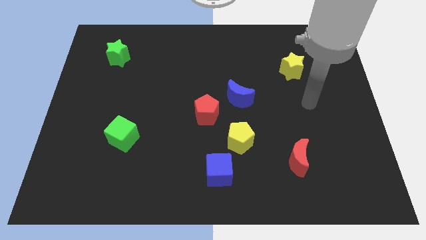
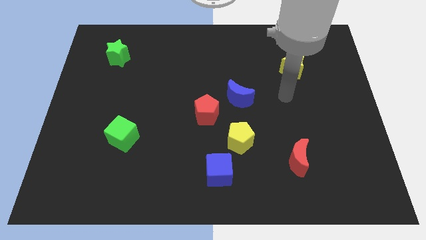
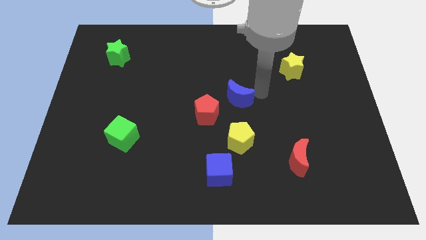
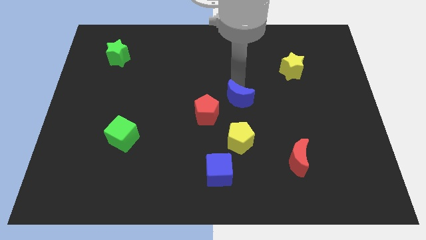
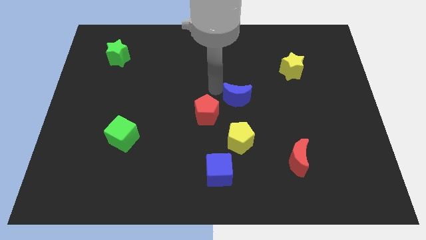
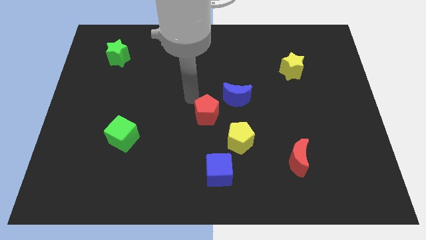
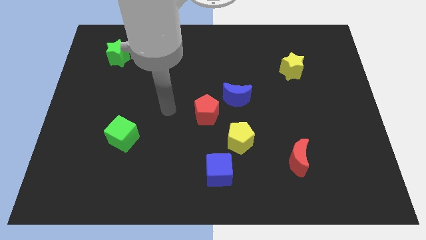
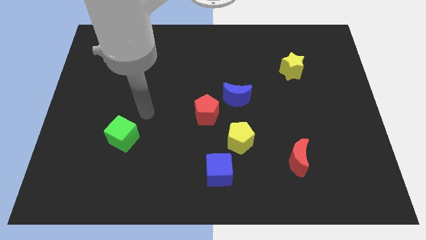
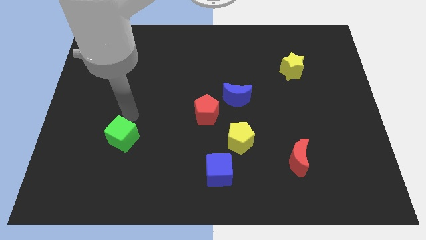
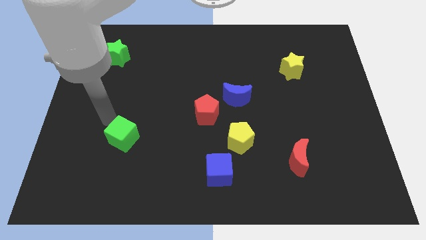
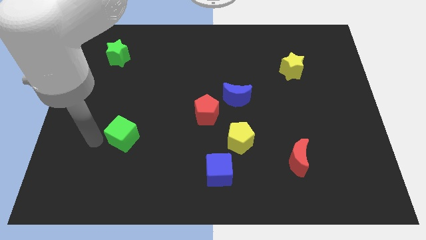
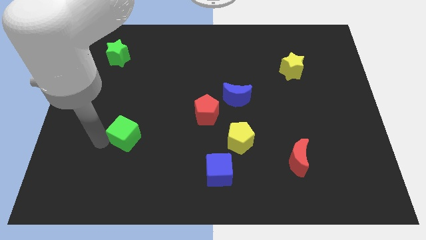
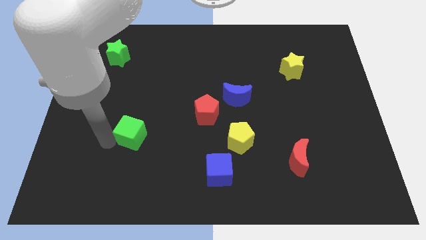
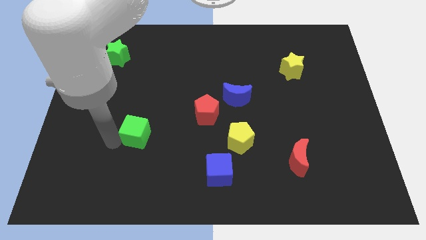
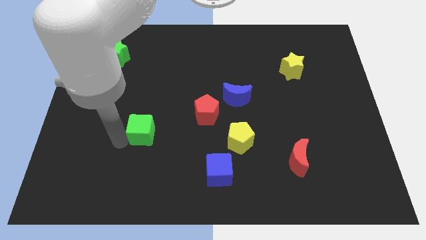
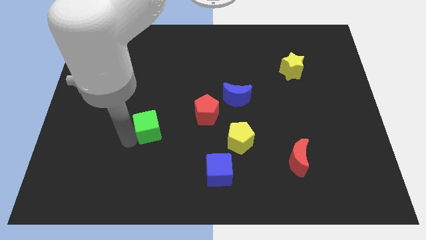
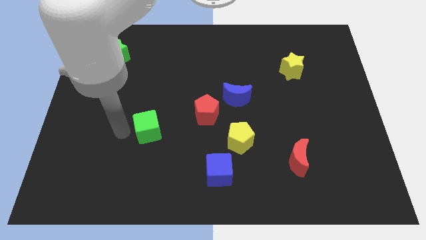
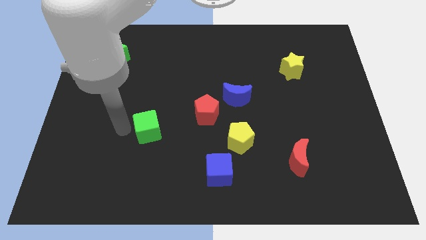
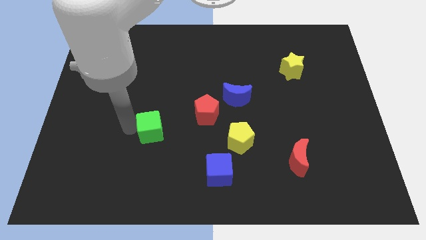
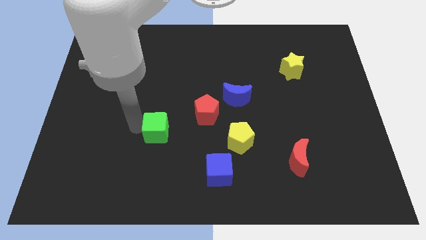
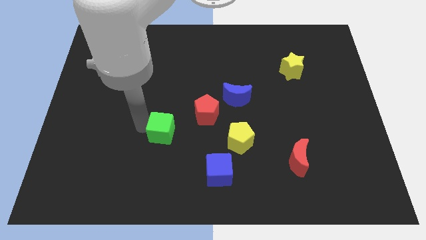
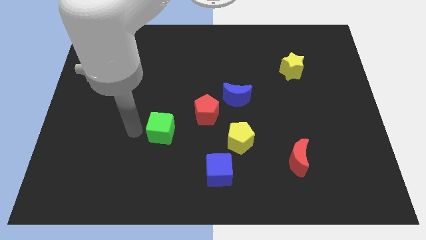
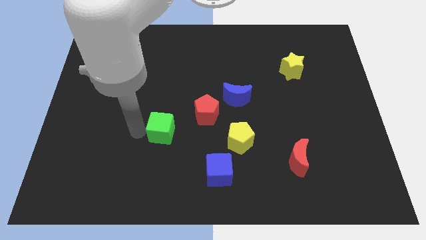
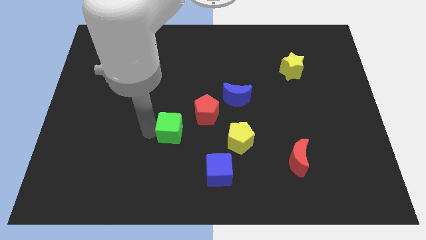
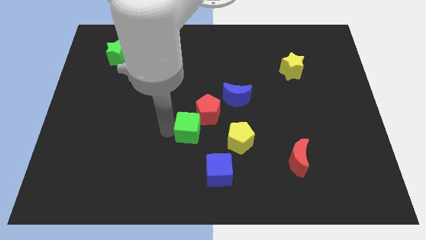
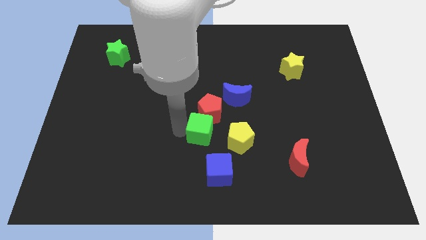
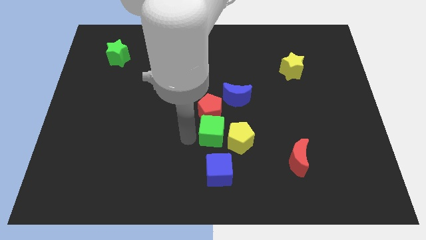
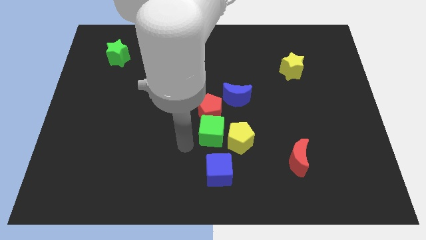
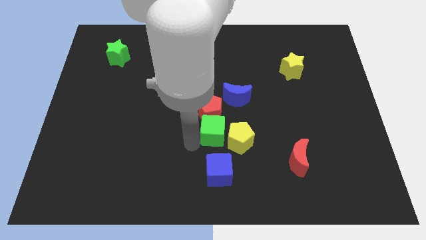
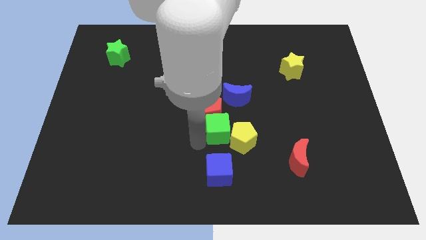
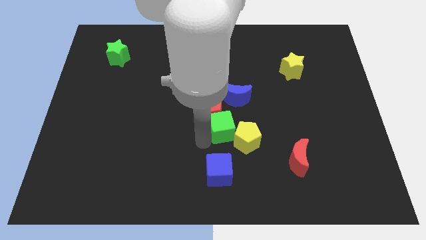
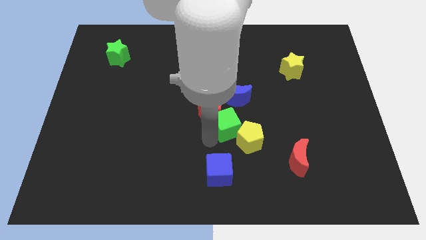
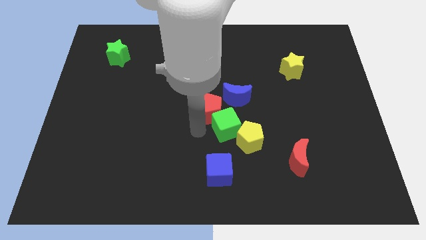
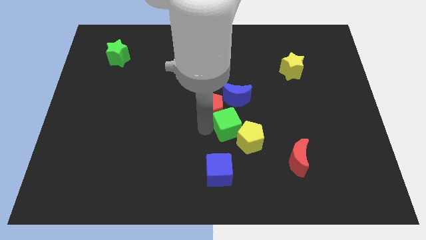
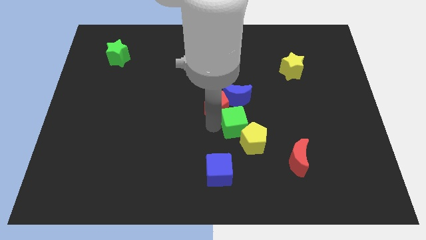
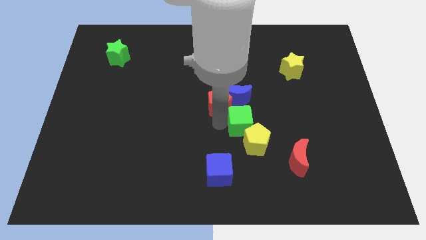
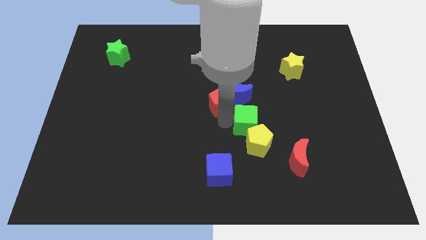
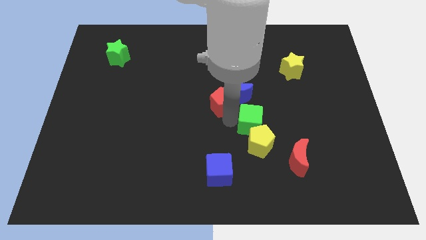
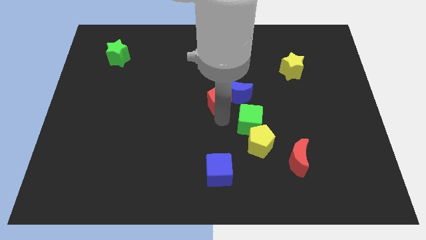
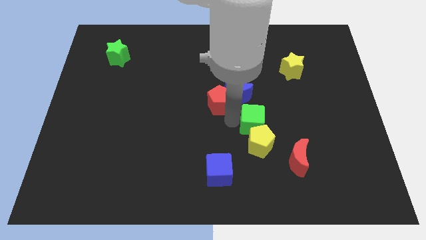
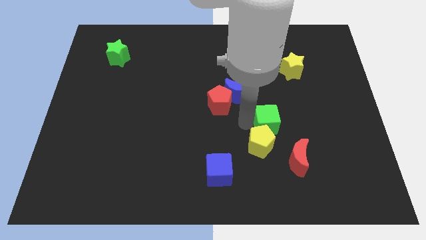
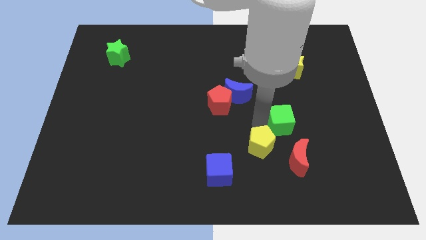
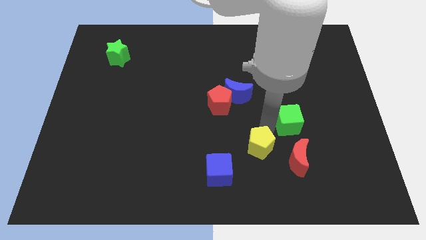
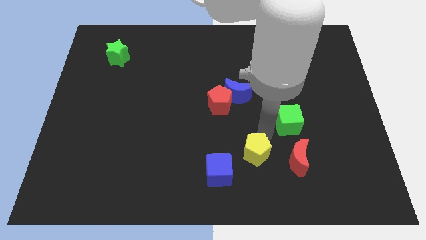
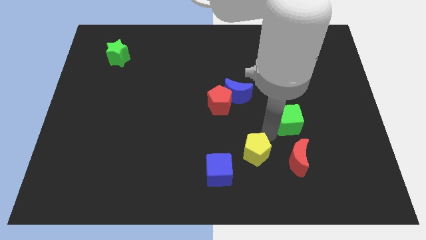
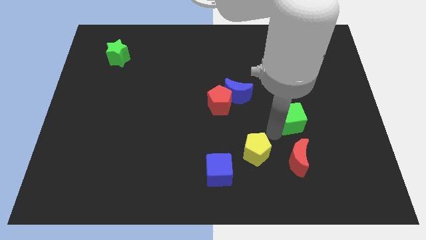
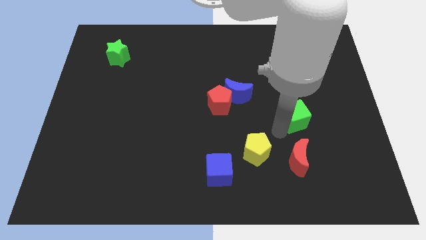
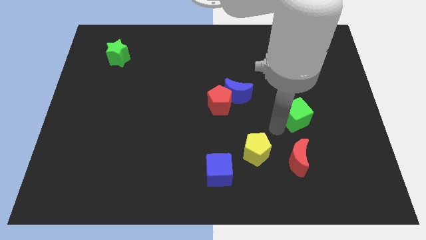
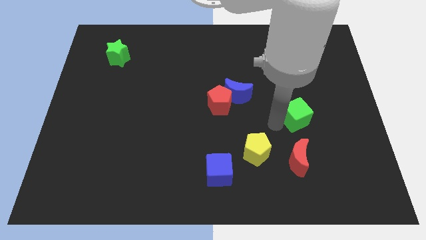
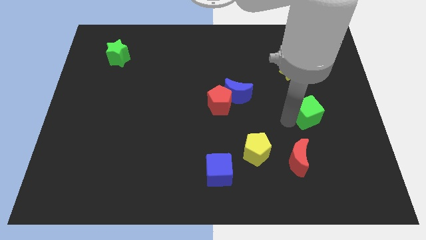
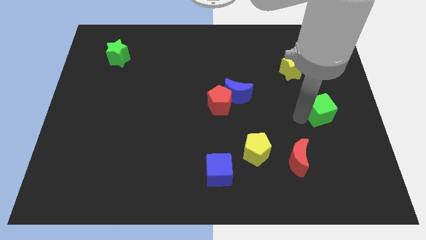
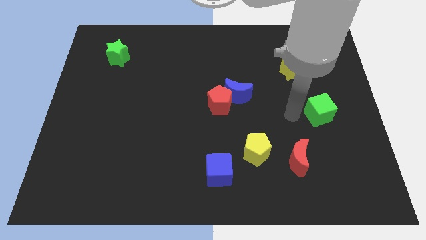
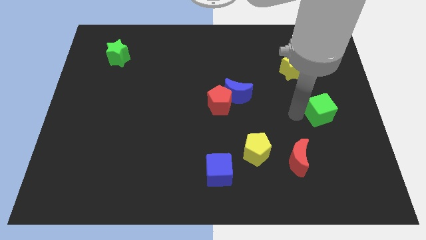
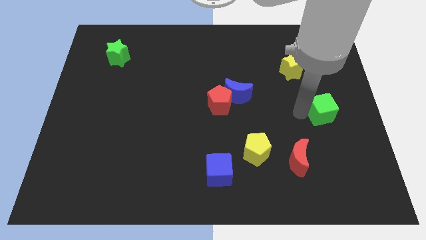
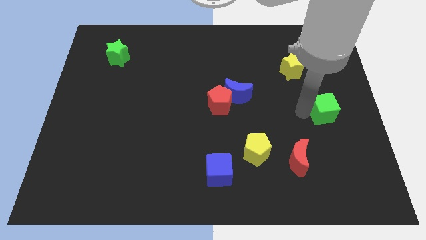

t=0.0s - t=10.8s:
push the green cube to the center right

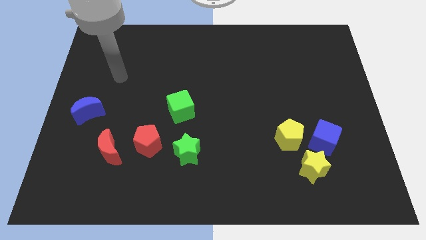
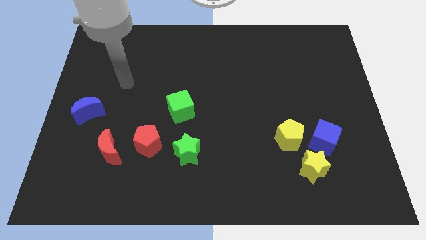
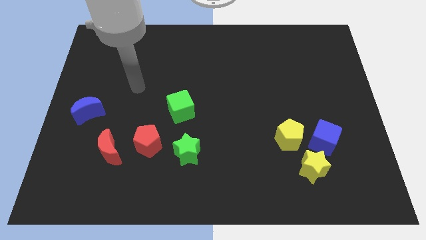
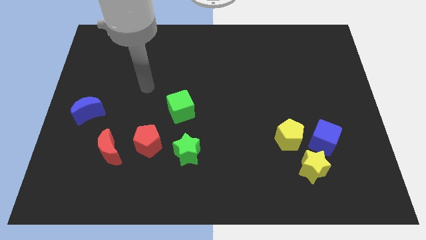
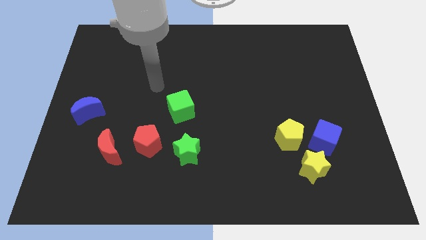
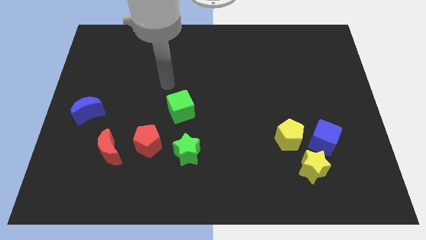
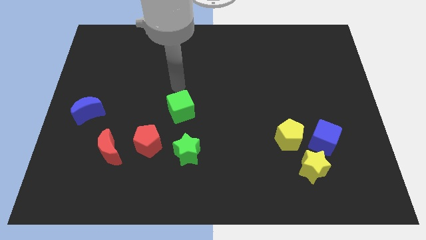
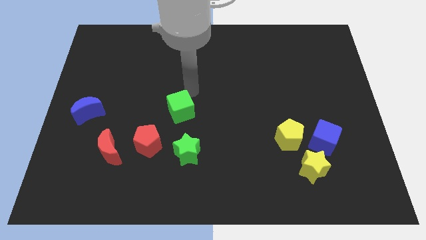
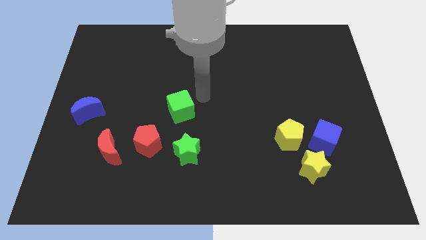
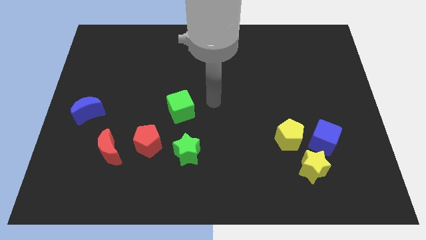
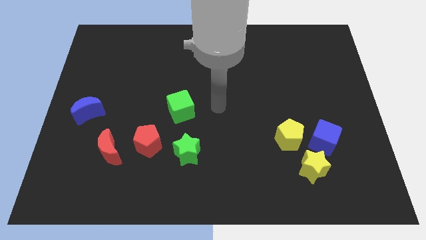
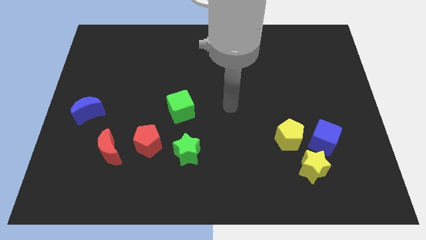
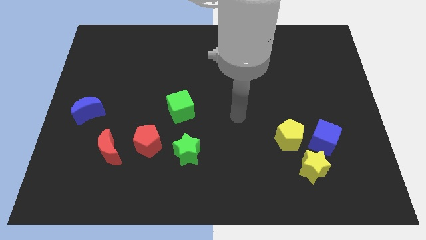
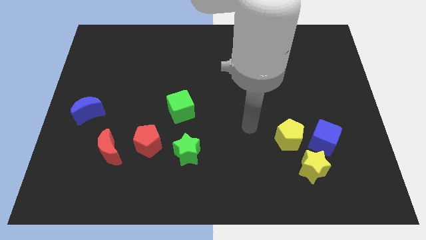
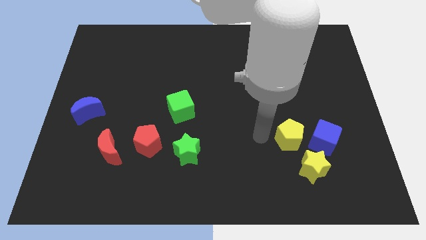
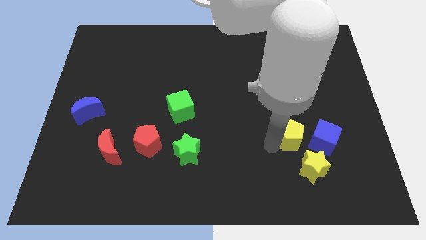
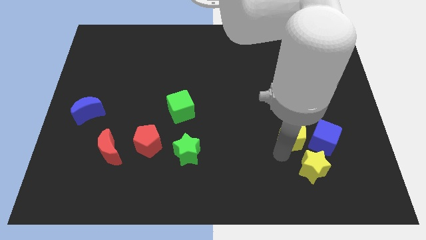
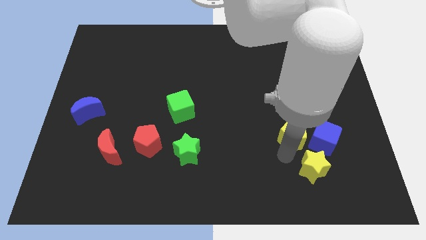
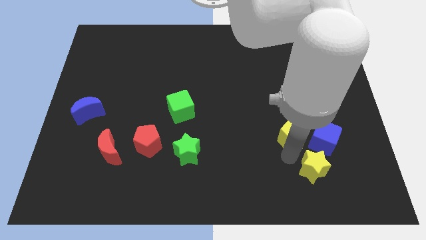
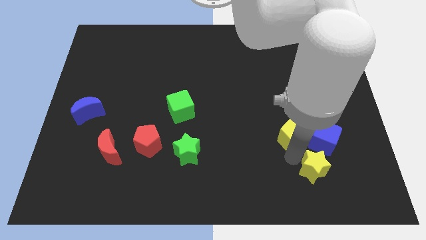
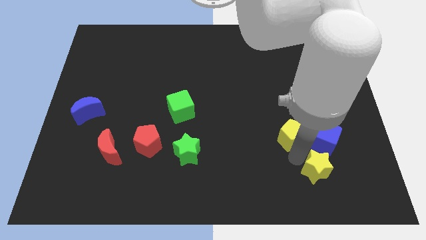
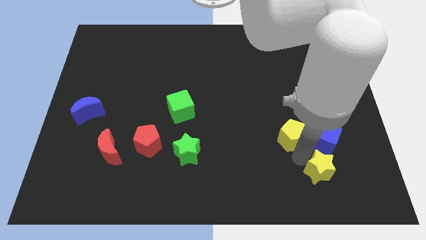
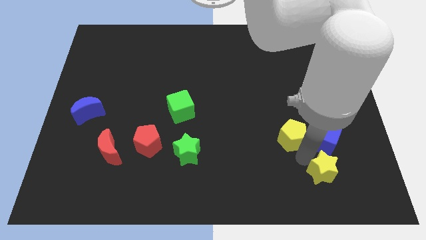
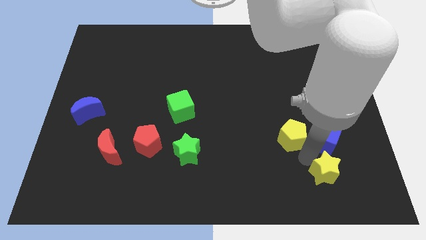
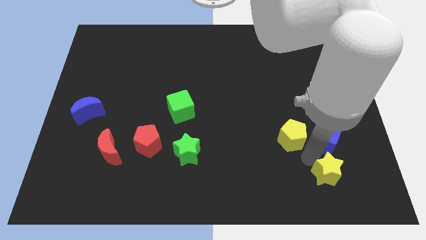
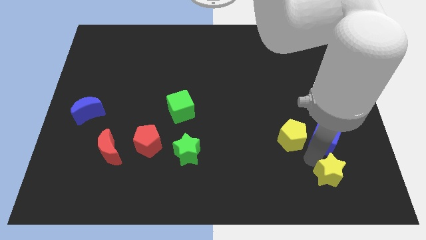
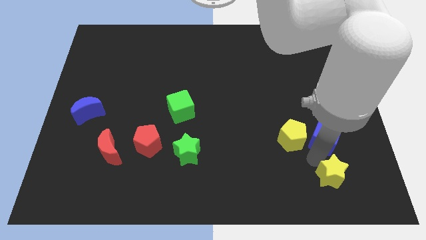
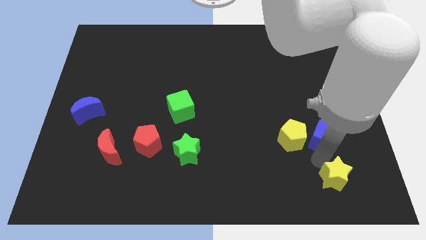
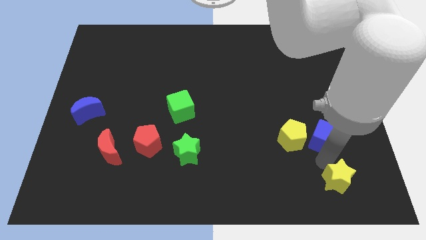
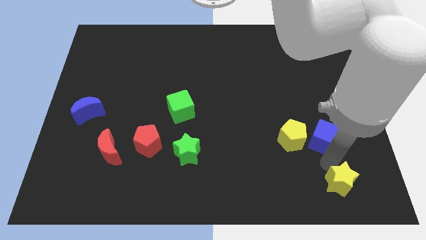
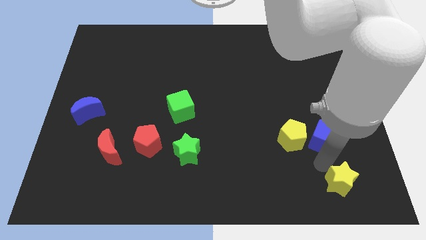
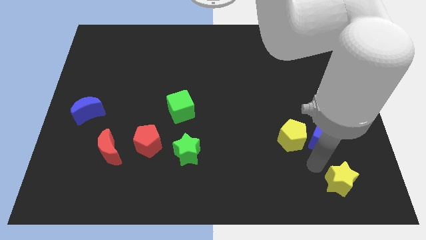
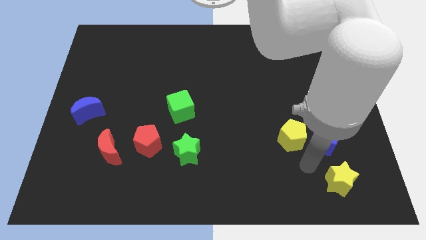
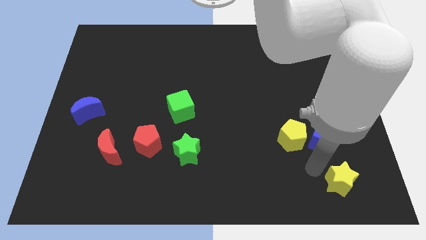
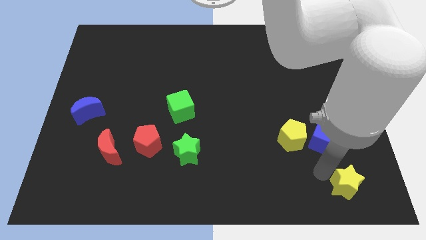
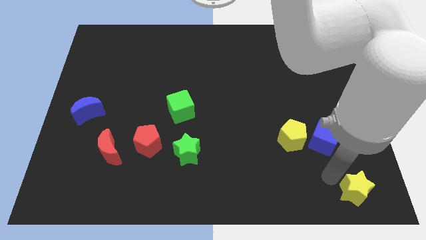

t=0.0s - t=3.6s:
push the yellow star to the bottom right
